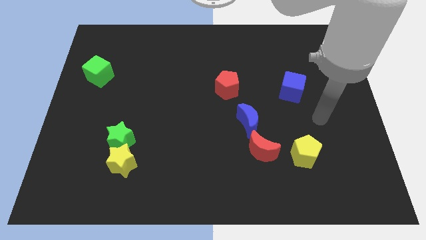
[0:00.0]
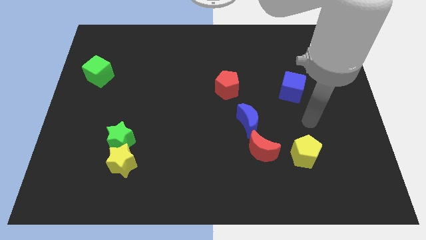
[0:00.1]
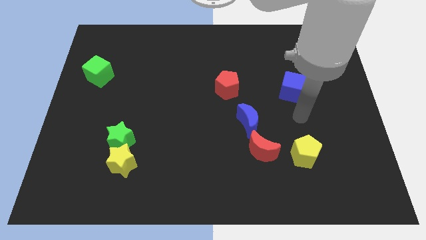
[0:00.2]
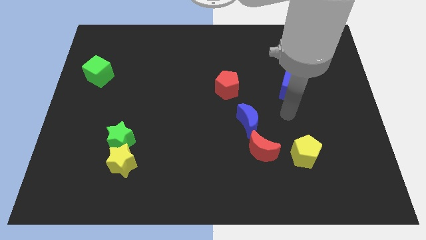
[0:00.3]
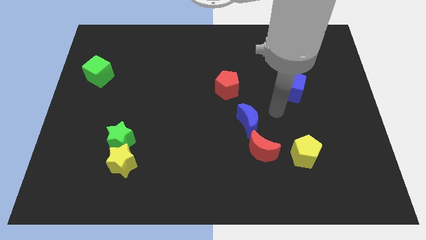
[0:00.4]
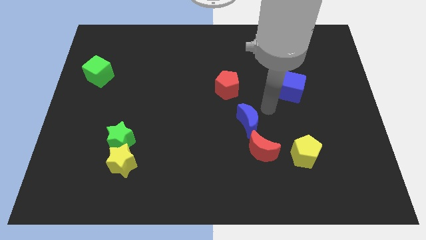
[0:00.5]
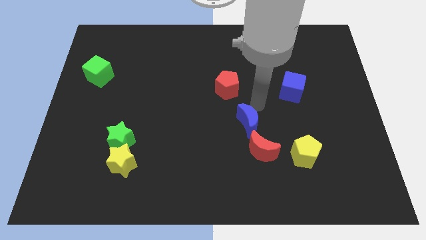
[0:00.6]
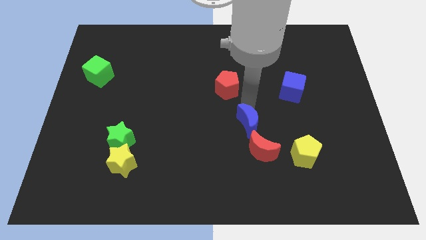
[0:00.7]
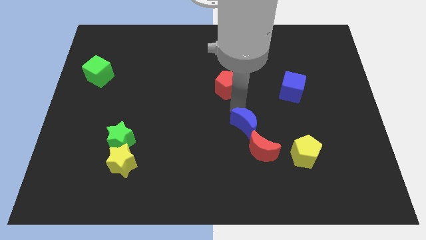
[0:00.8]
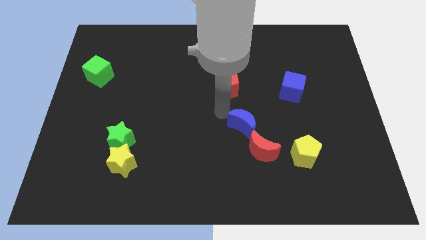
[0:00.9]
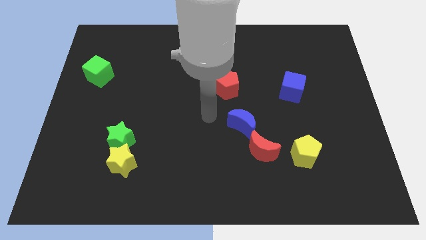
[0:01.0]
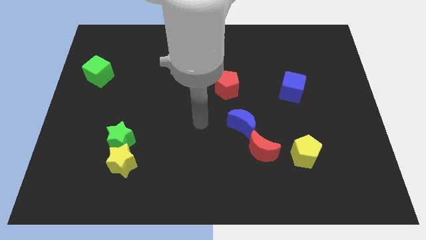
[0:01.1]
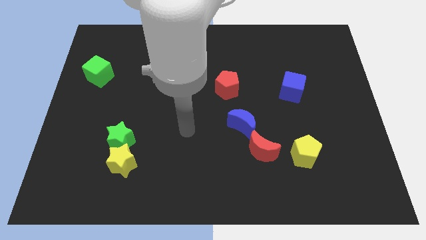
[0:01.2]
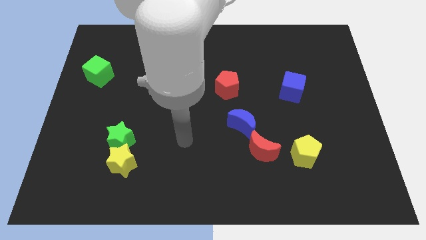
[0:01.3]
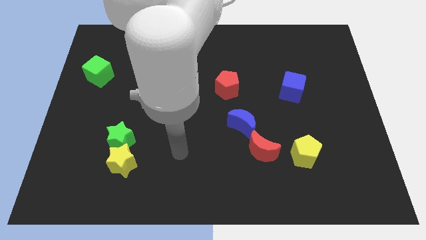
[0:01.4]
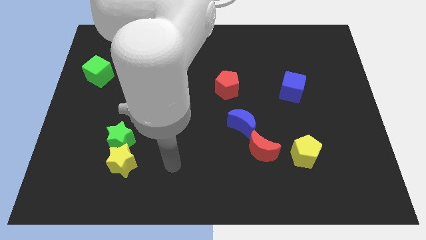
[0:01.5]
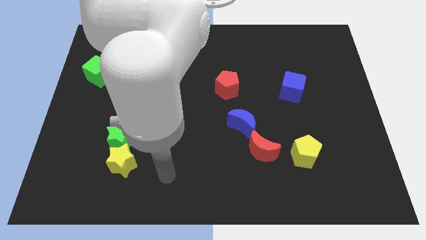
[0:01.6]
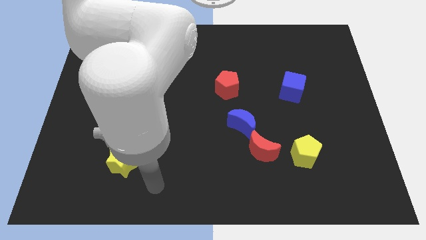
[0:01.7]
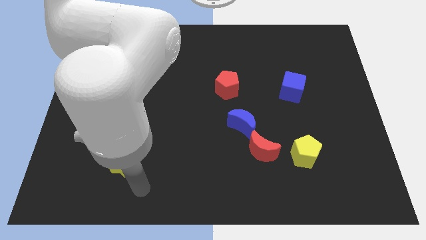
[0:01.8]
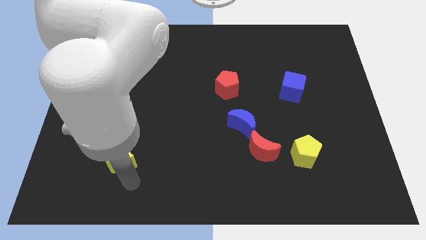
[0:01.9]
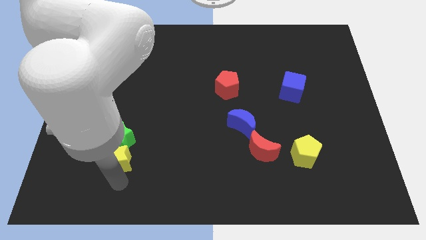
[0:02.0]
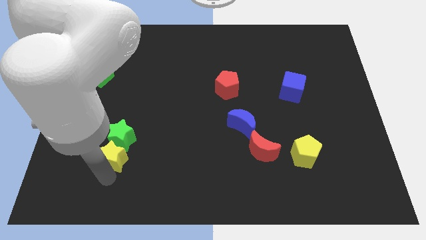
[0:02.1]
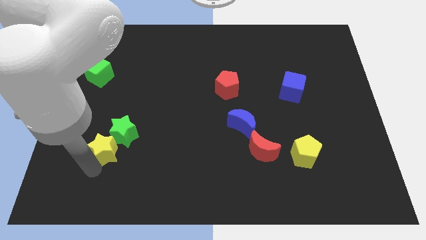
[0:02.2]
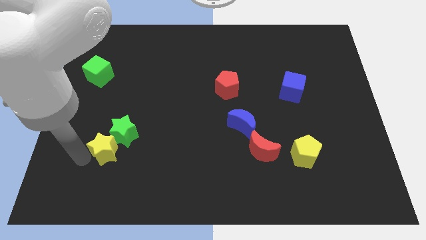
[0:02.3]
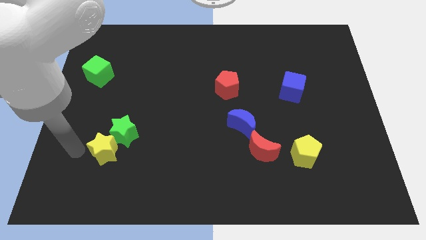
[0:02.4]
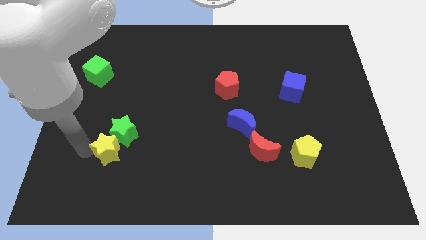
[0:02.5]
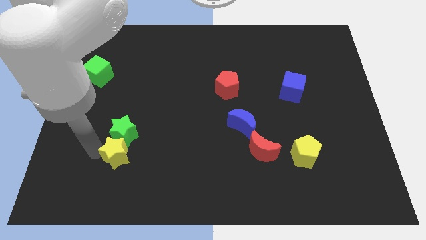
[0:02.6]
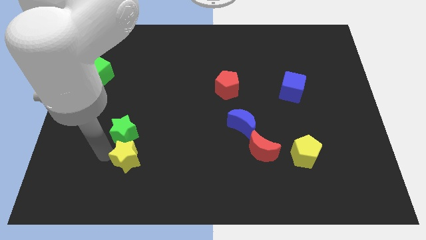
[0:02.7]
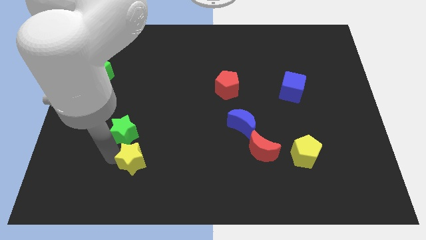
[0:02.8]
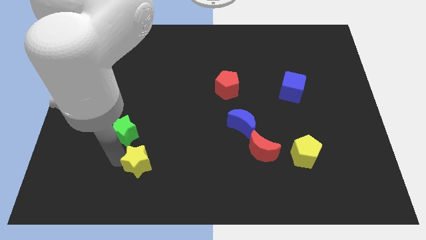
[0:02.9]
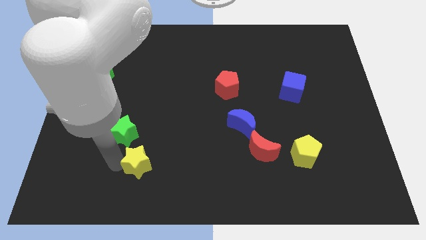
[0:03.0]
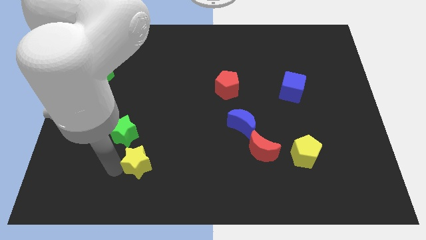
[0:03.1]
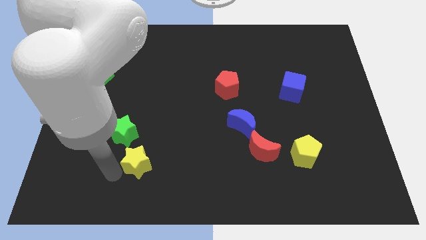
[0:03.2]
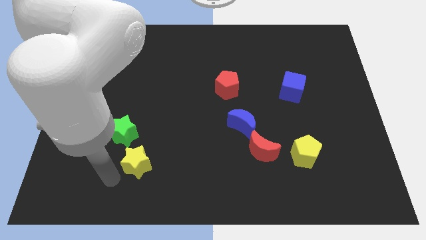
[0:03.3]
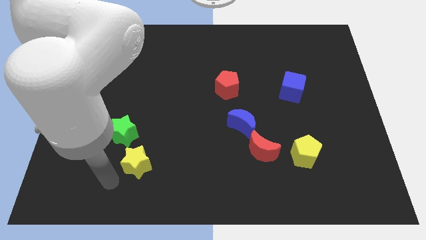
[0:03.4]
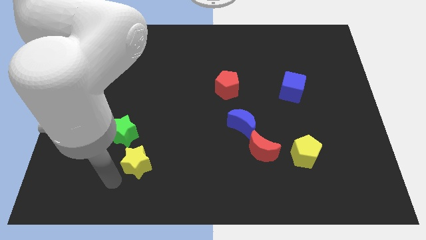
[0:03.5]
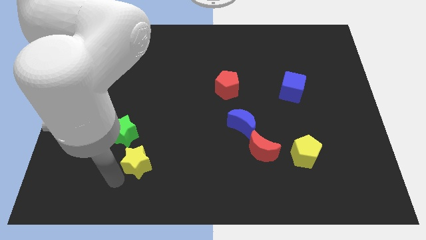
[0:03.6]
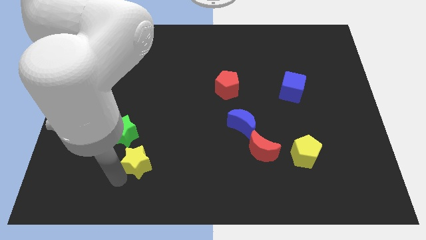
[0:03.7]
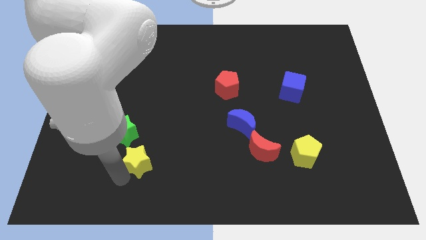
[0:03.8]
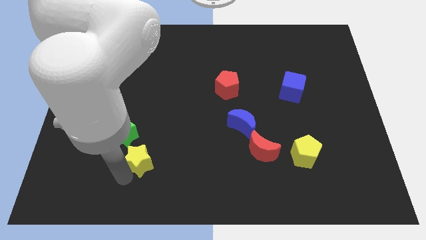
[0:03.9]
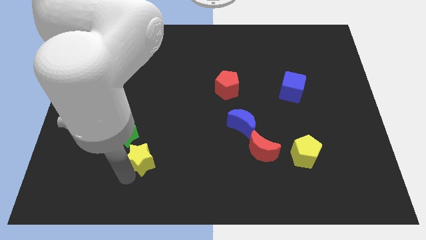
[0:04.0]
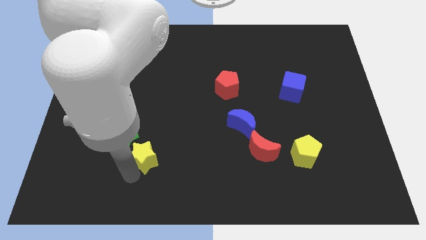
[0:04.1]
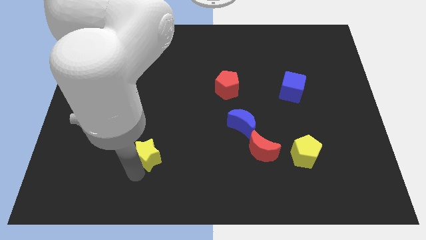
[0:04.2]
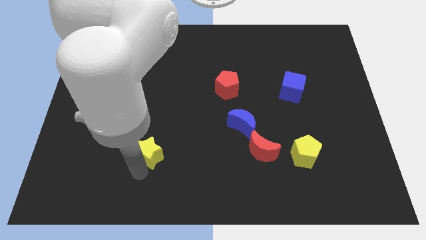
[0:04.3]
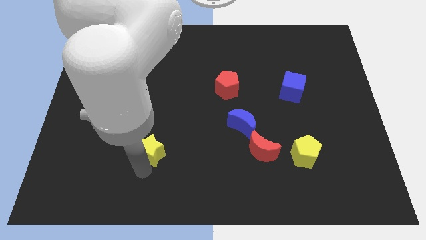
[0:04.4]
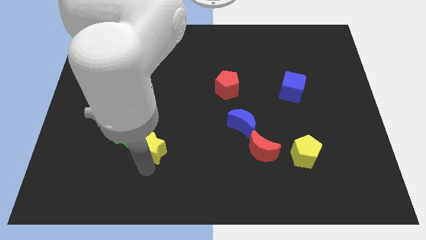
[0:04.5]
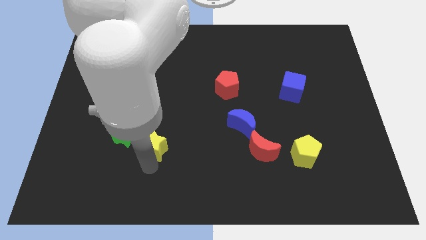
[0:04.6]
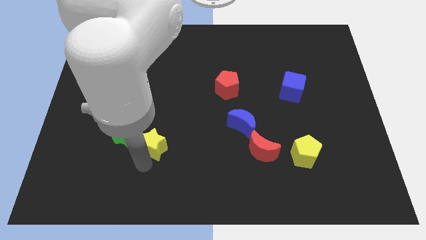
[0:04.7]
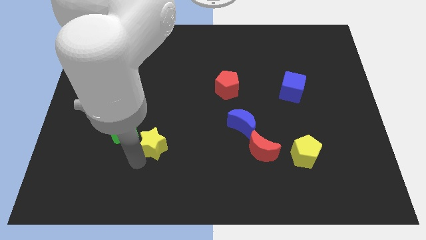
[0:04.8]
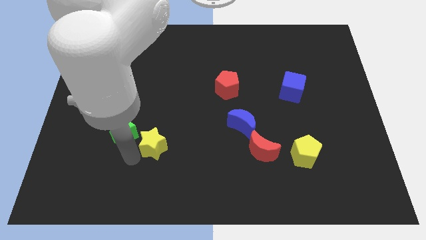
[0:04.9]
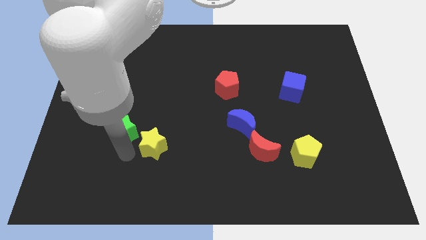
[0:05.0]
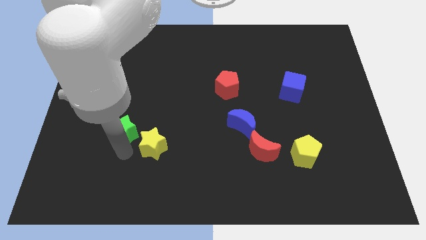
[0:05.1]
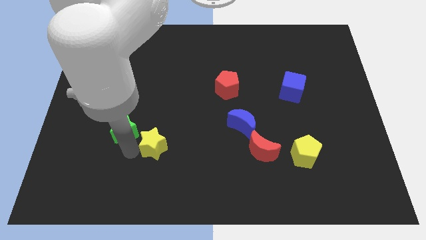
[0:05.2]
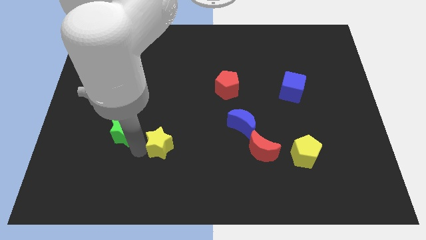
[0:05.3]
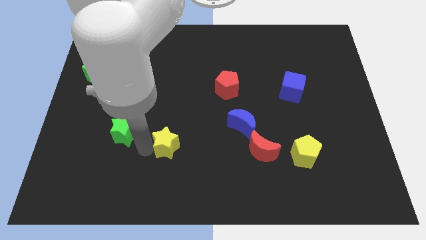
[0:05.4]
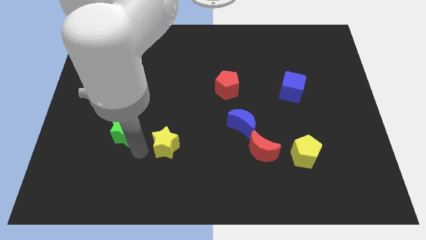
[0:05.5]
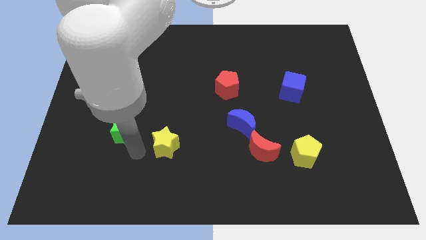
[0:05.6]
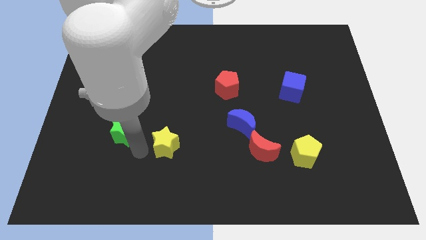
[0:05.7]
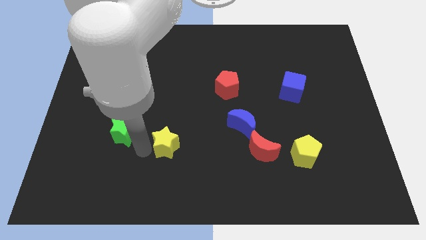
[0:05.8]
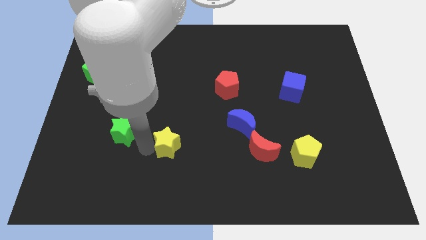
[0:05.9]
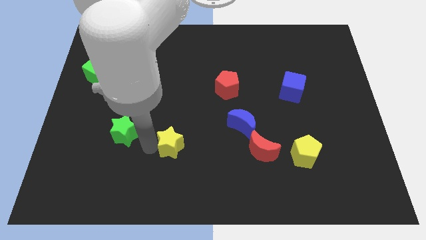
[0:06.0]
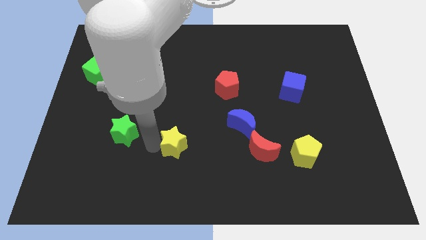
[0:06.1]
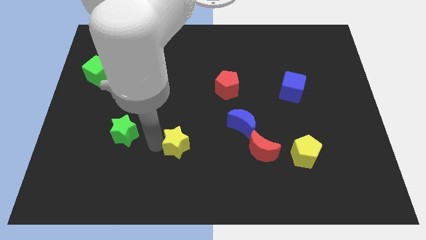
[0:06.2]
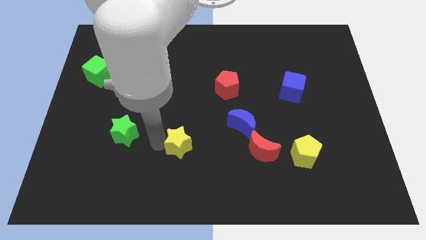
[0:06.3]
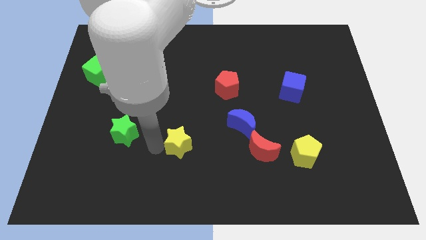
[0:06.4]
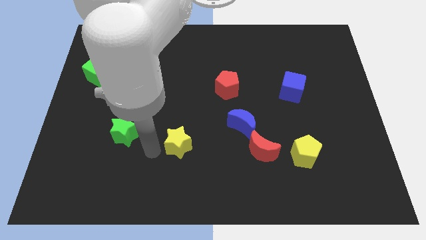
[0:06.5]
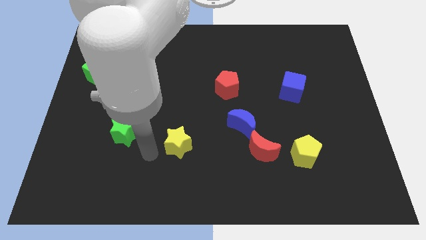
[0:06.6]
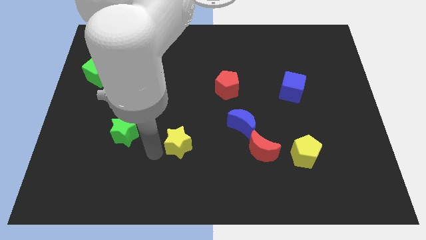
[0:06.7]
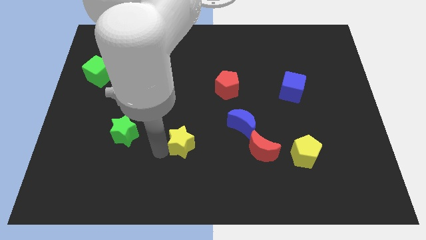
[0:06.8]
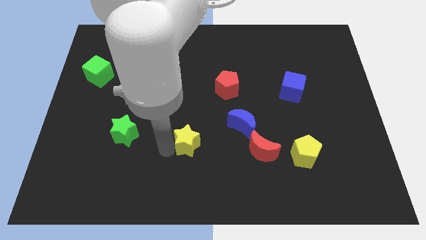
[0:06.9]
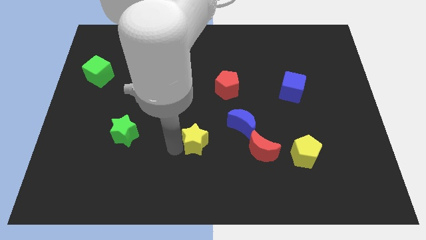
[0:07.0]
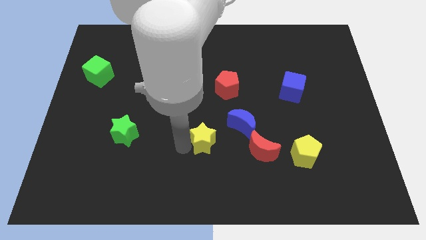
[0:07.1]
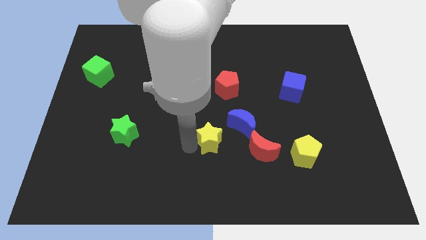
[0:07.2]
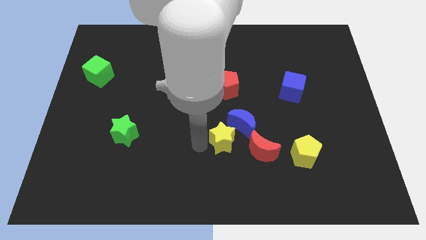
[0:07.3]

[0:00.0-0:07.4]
put the yellow star to the blue moon
